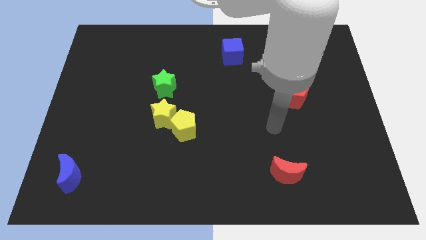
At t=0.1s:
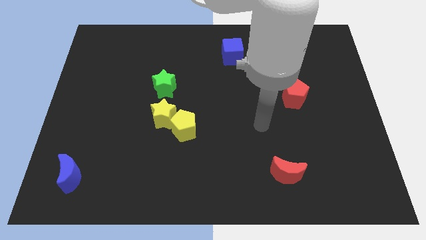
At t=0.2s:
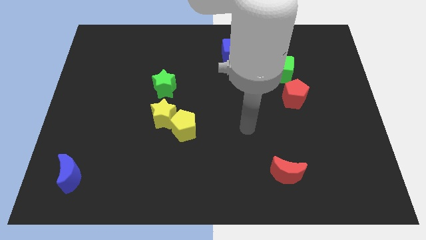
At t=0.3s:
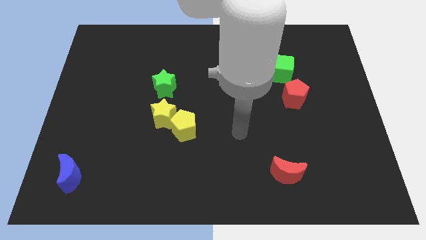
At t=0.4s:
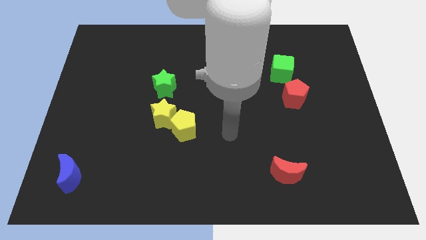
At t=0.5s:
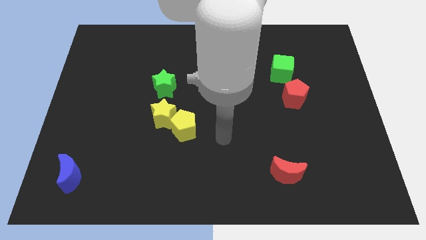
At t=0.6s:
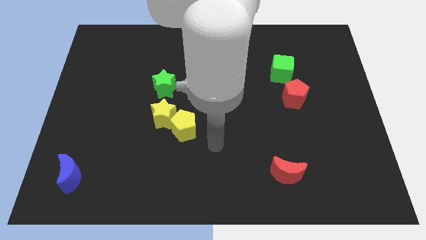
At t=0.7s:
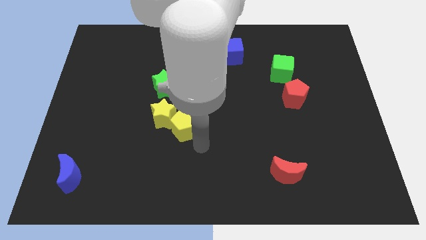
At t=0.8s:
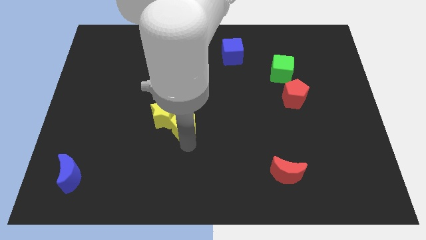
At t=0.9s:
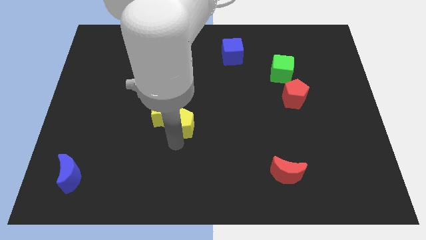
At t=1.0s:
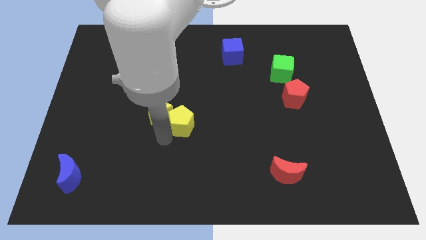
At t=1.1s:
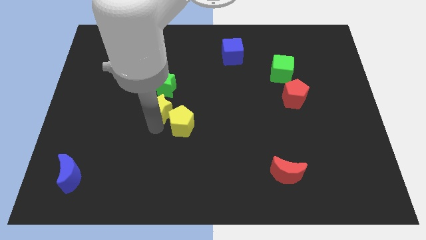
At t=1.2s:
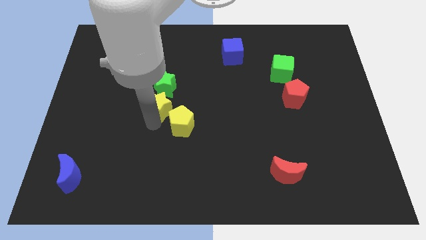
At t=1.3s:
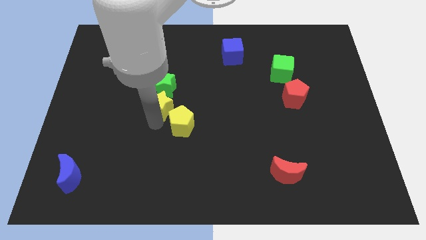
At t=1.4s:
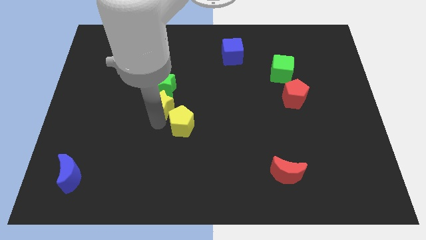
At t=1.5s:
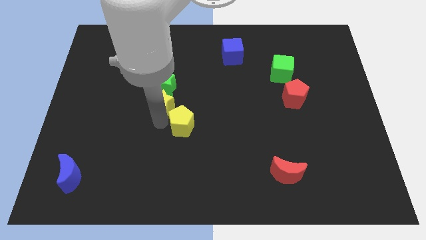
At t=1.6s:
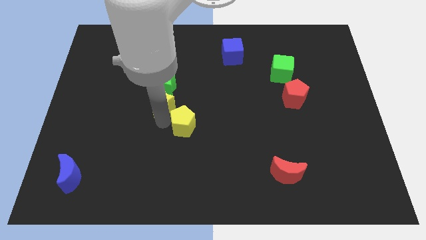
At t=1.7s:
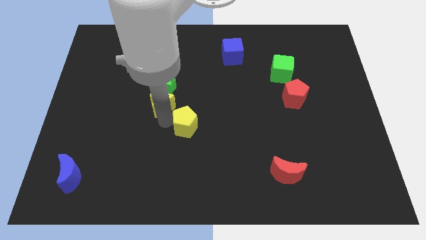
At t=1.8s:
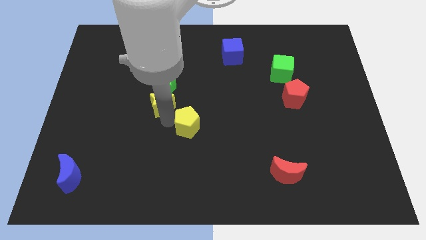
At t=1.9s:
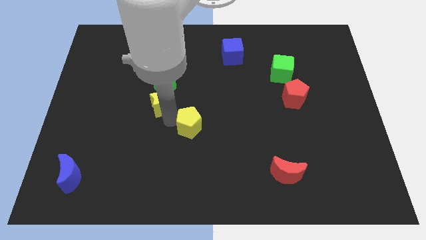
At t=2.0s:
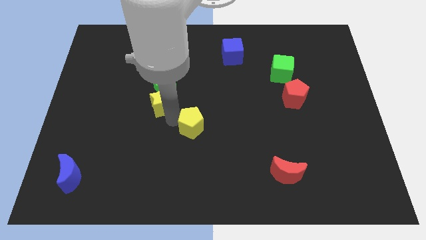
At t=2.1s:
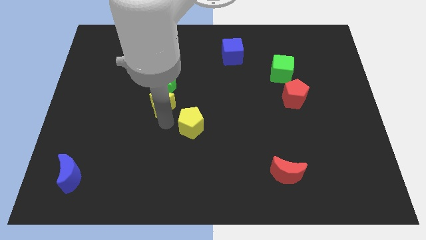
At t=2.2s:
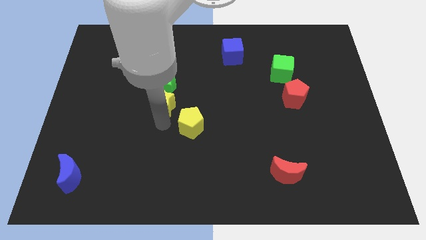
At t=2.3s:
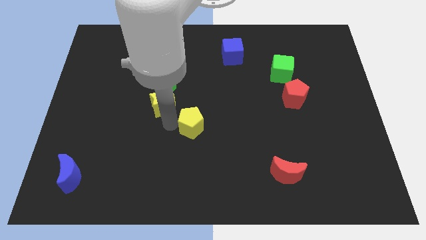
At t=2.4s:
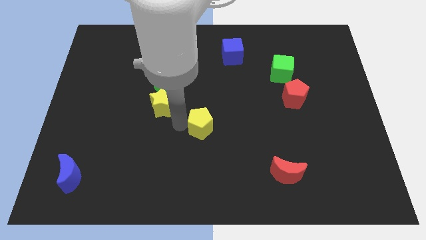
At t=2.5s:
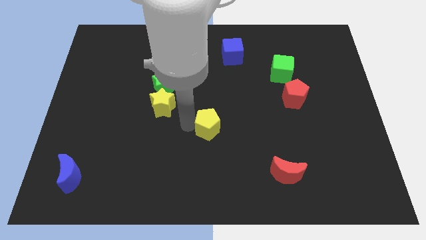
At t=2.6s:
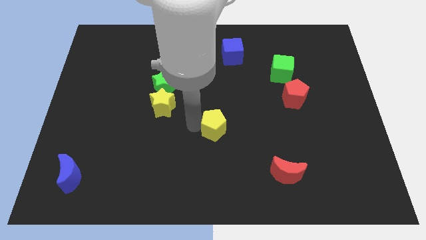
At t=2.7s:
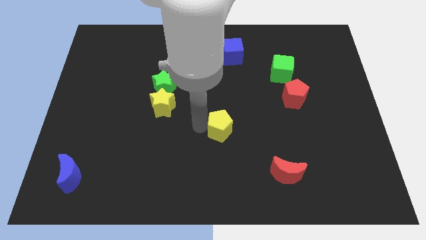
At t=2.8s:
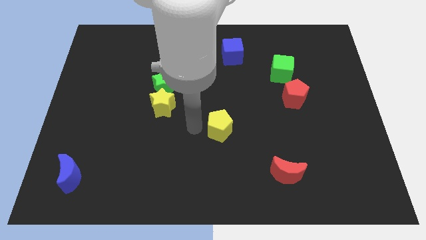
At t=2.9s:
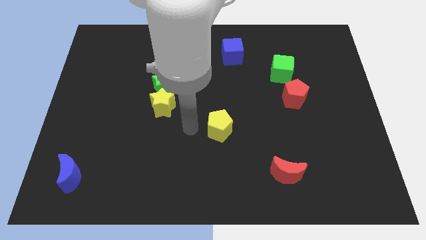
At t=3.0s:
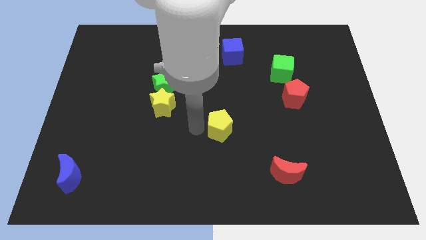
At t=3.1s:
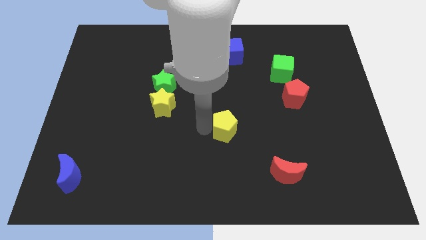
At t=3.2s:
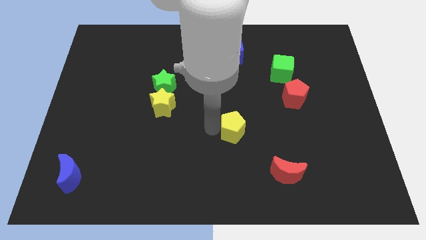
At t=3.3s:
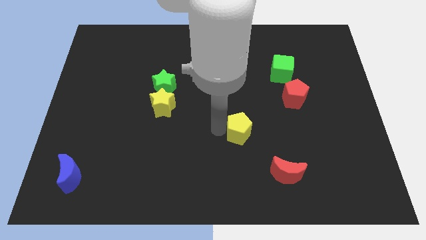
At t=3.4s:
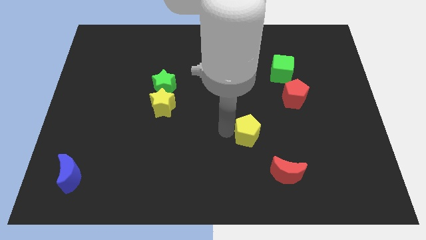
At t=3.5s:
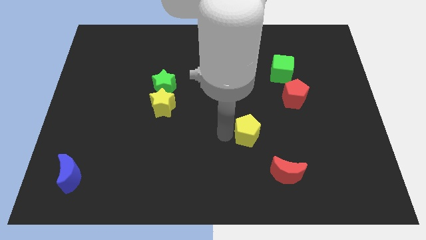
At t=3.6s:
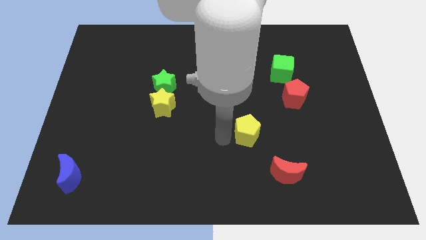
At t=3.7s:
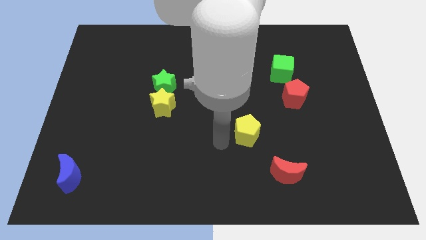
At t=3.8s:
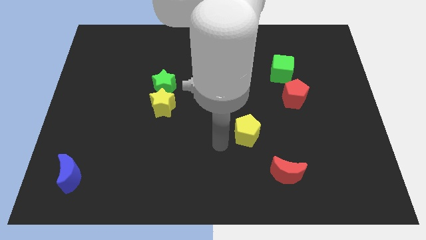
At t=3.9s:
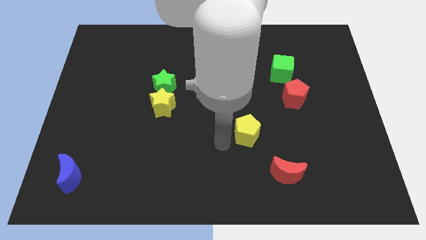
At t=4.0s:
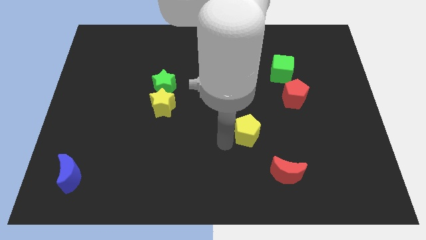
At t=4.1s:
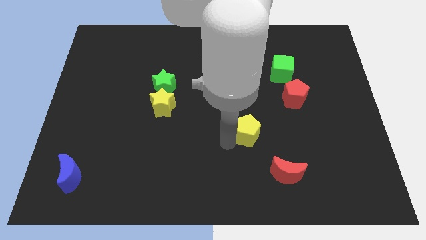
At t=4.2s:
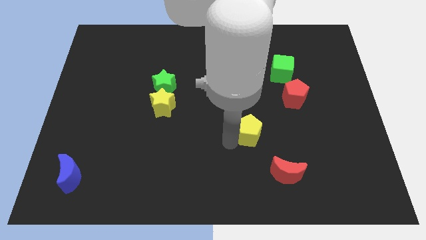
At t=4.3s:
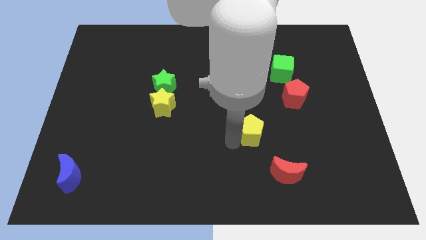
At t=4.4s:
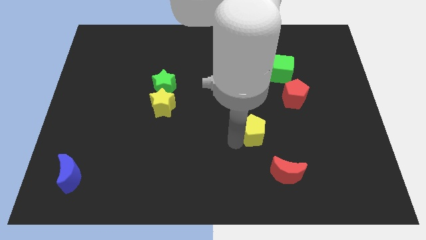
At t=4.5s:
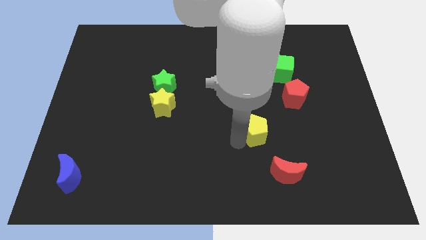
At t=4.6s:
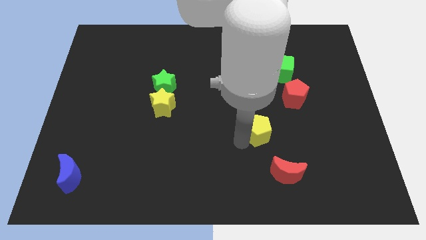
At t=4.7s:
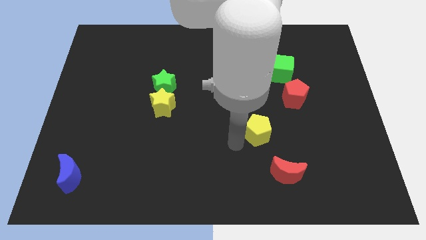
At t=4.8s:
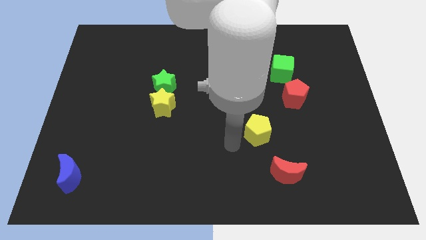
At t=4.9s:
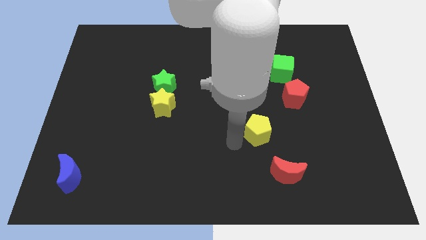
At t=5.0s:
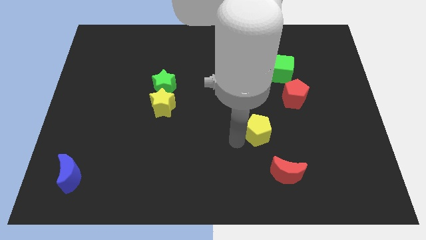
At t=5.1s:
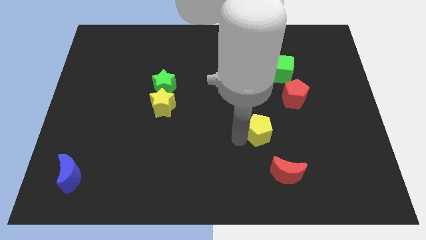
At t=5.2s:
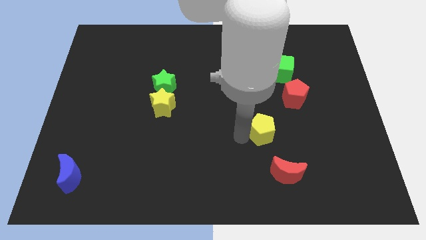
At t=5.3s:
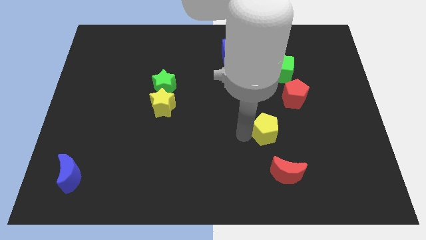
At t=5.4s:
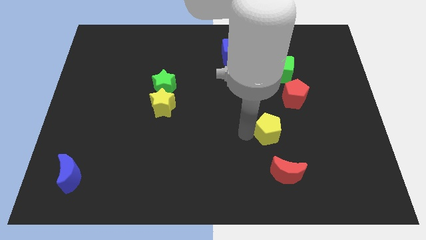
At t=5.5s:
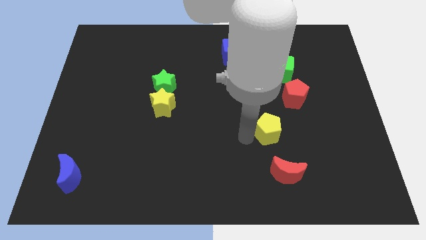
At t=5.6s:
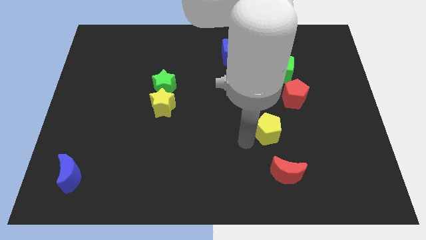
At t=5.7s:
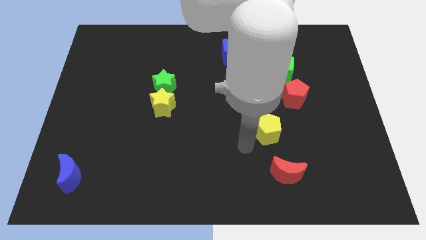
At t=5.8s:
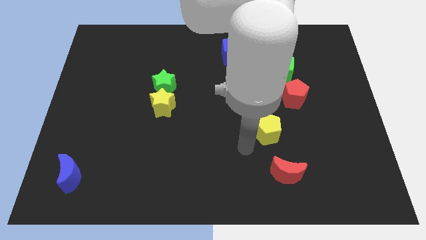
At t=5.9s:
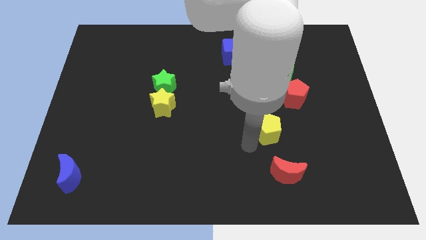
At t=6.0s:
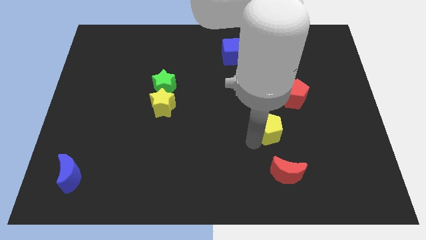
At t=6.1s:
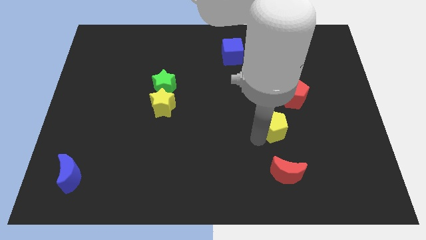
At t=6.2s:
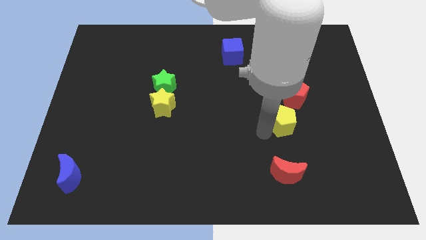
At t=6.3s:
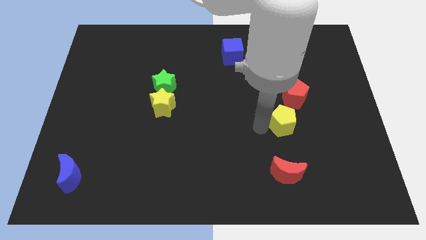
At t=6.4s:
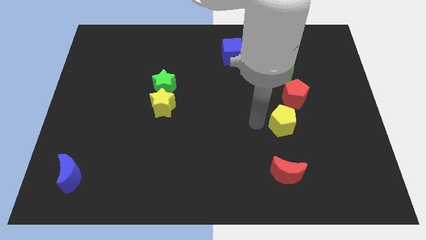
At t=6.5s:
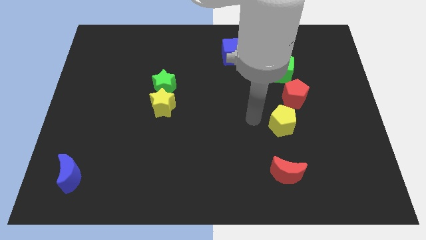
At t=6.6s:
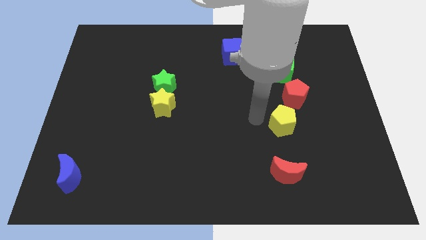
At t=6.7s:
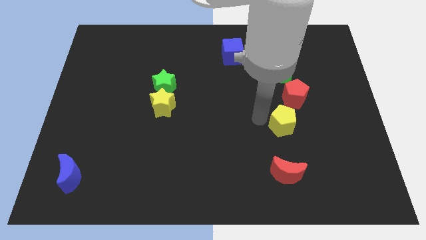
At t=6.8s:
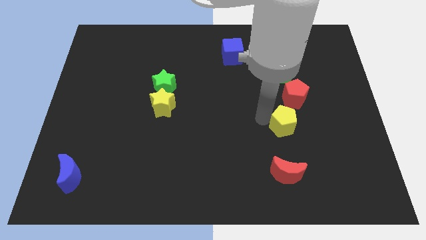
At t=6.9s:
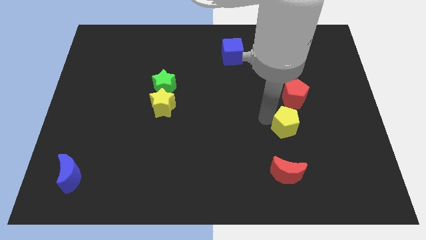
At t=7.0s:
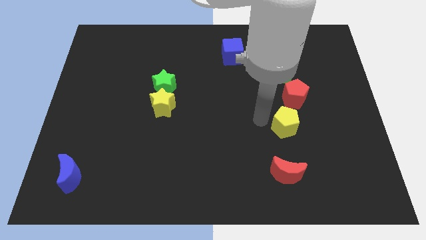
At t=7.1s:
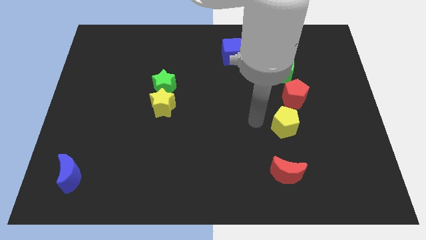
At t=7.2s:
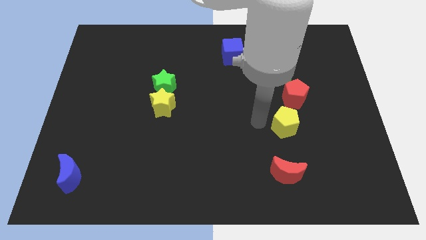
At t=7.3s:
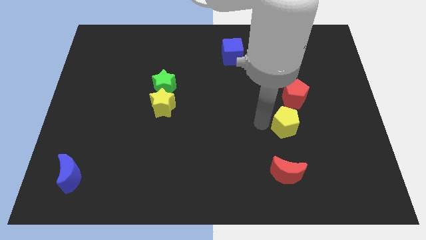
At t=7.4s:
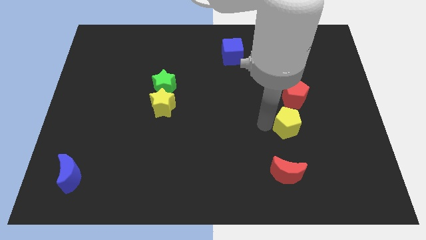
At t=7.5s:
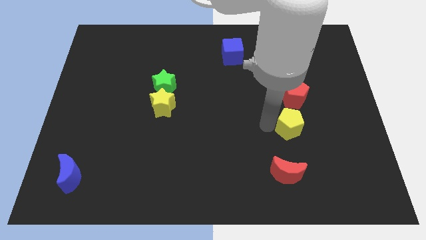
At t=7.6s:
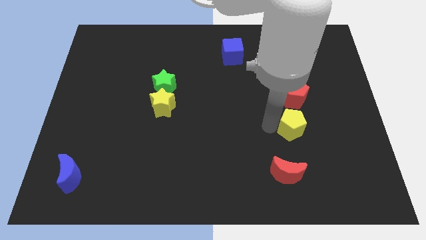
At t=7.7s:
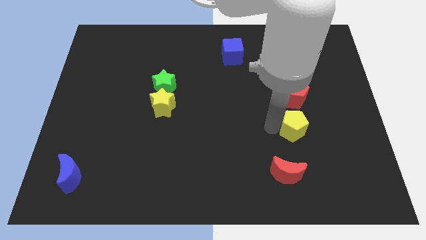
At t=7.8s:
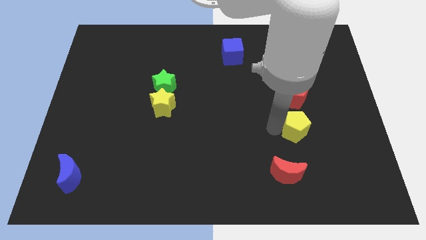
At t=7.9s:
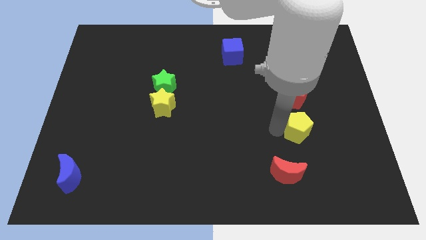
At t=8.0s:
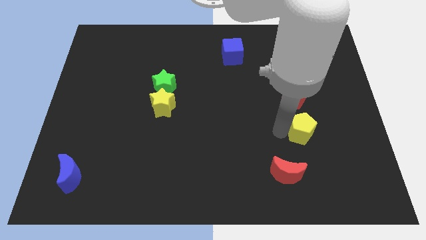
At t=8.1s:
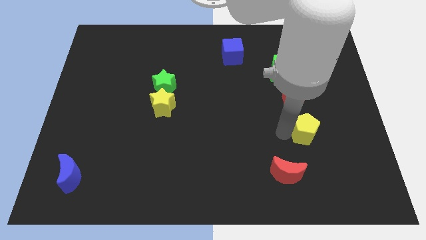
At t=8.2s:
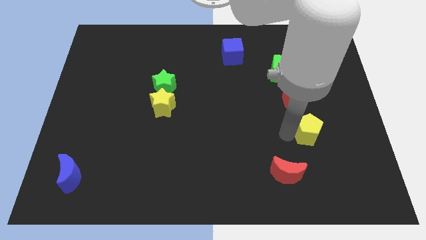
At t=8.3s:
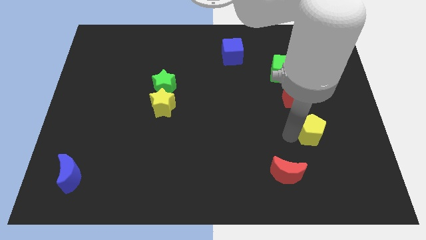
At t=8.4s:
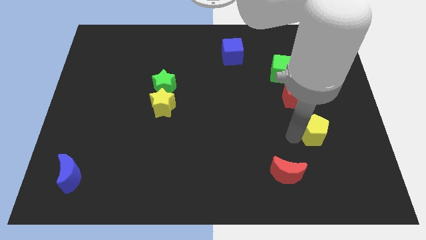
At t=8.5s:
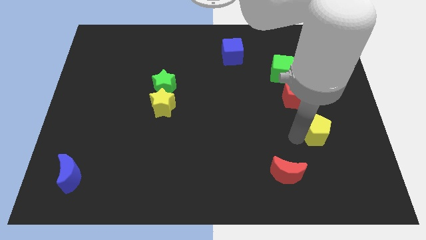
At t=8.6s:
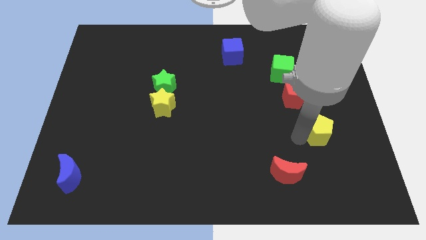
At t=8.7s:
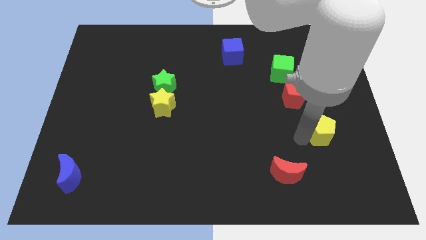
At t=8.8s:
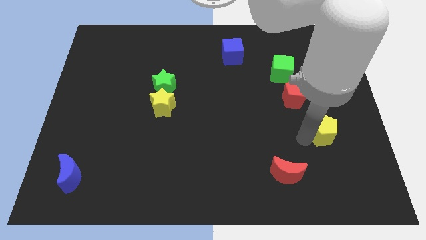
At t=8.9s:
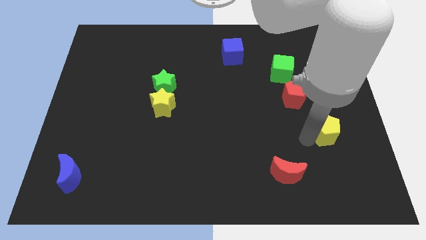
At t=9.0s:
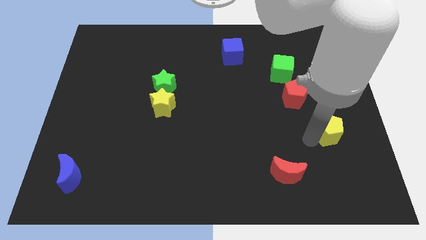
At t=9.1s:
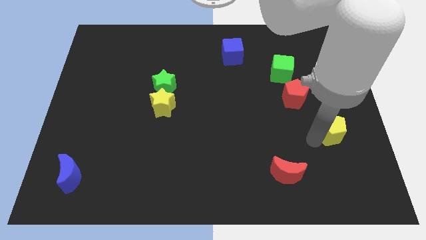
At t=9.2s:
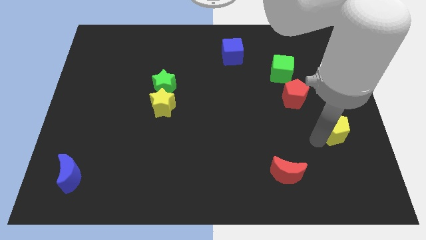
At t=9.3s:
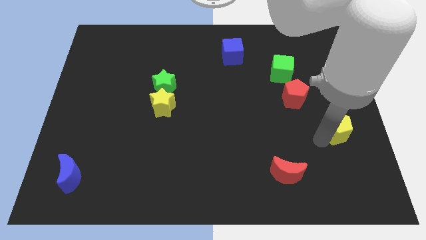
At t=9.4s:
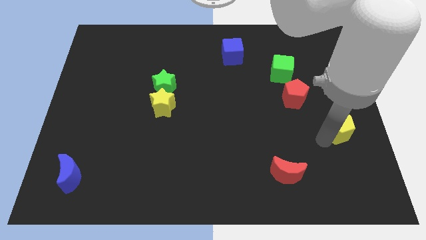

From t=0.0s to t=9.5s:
put the yellow pentagon to the right side
